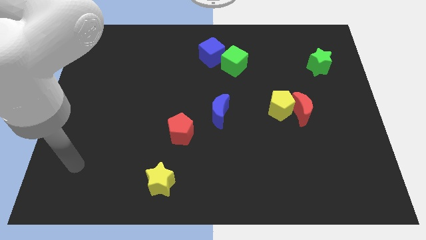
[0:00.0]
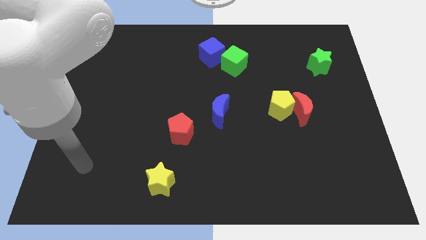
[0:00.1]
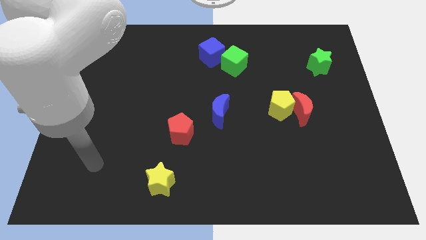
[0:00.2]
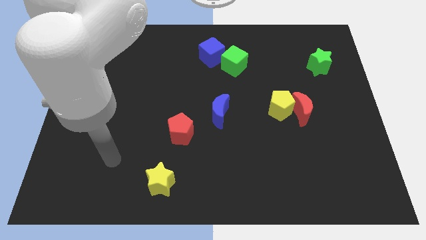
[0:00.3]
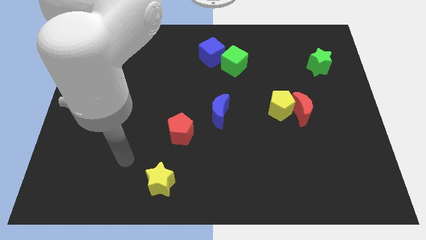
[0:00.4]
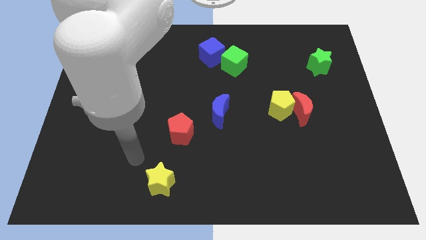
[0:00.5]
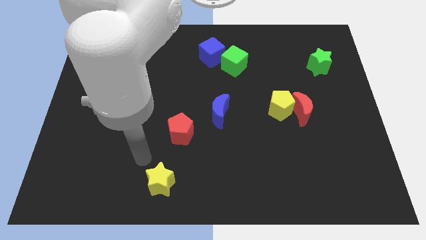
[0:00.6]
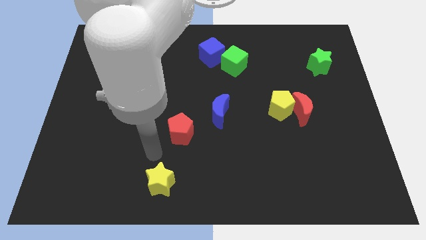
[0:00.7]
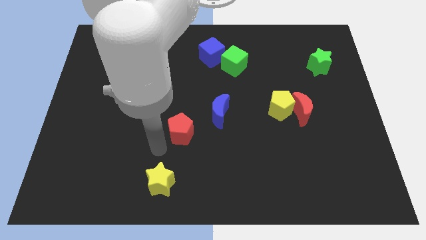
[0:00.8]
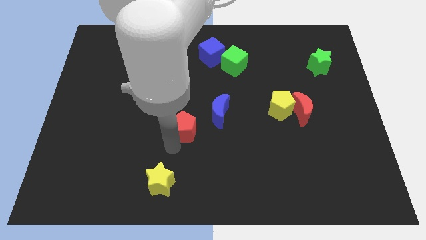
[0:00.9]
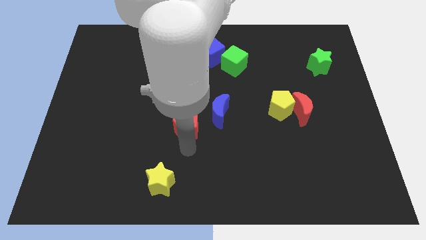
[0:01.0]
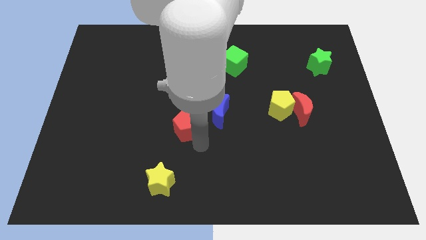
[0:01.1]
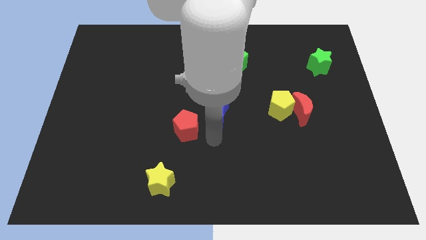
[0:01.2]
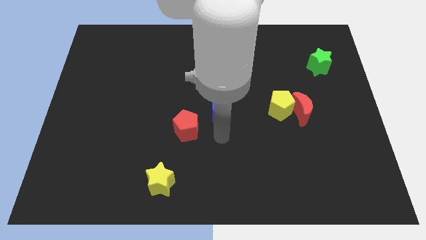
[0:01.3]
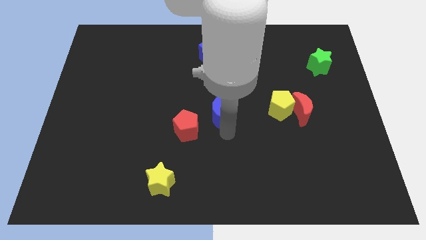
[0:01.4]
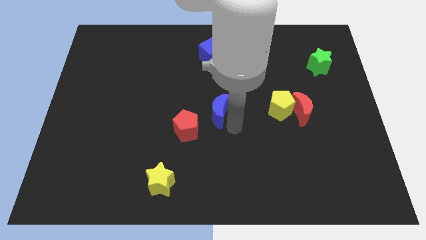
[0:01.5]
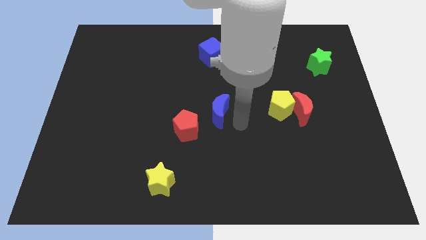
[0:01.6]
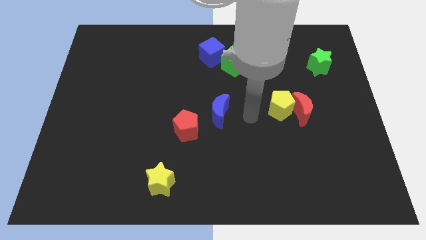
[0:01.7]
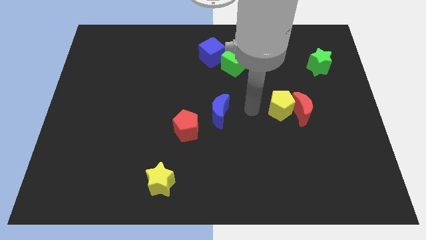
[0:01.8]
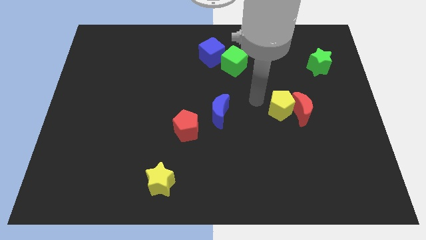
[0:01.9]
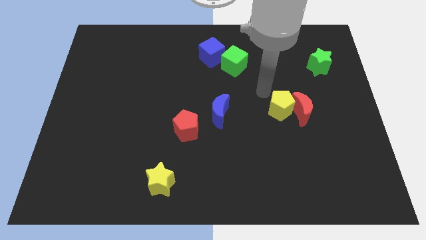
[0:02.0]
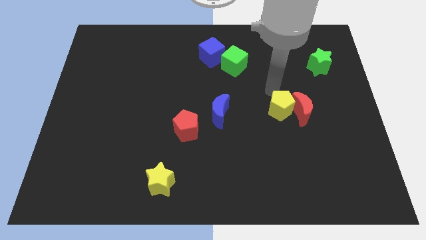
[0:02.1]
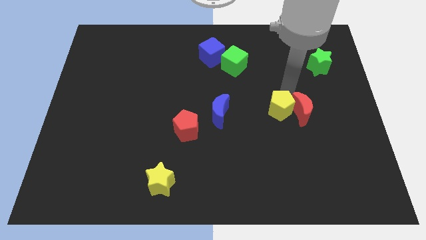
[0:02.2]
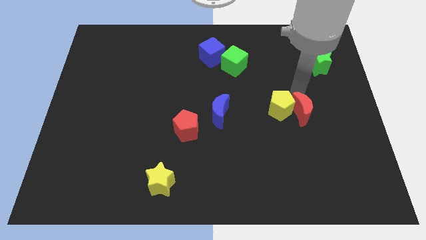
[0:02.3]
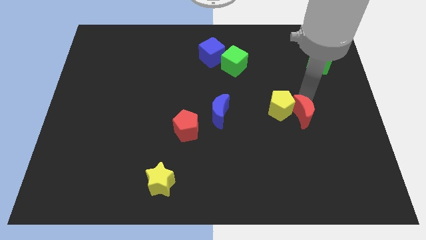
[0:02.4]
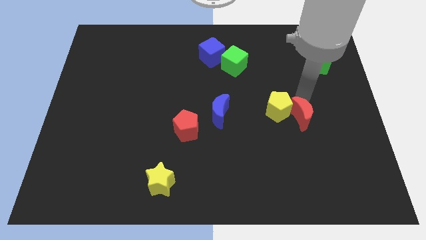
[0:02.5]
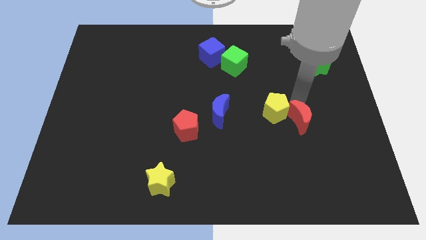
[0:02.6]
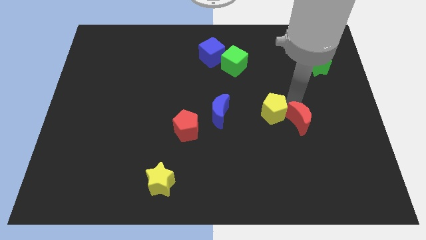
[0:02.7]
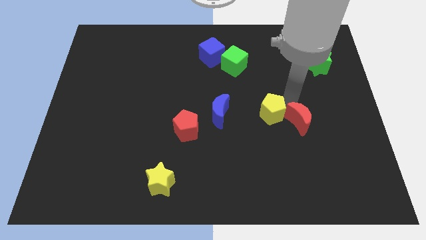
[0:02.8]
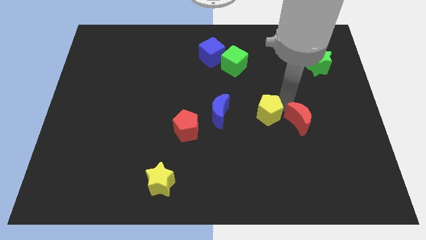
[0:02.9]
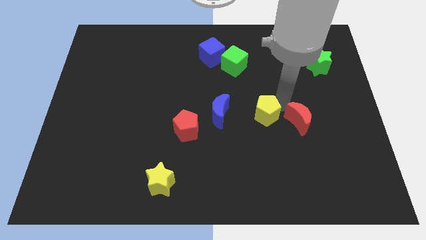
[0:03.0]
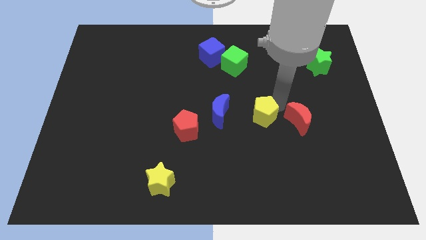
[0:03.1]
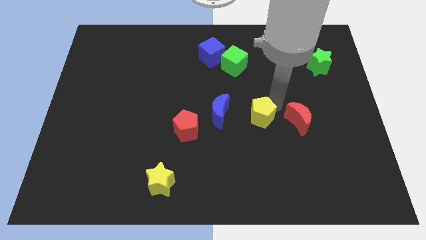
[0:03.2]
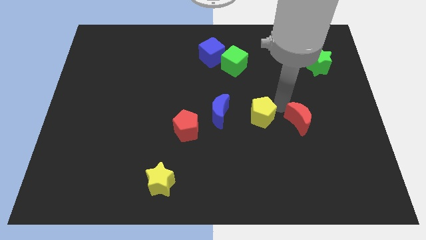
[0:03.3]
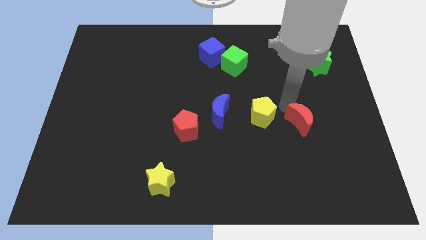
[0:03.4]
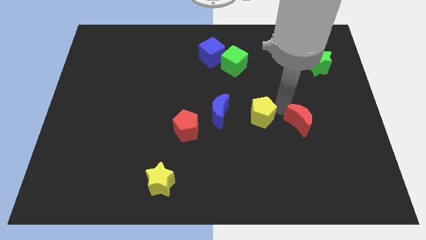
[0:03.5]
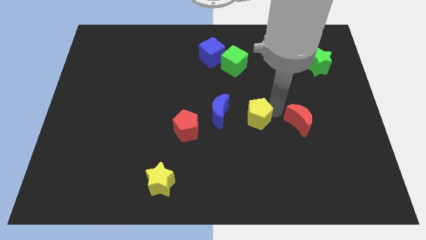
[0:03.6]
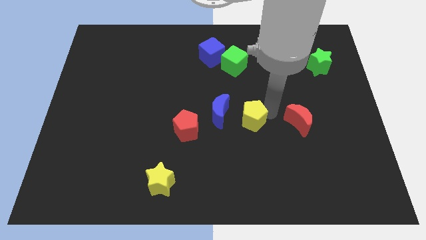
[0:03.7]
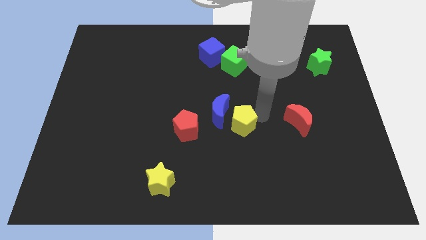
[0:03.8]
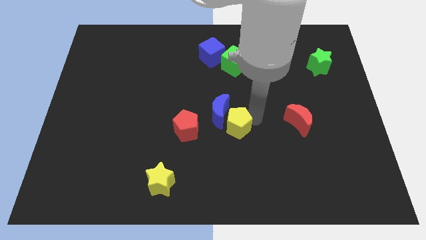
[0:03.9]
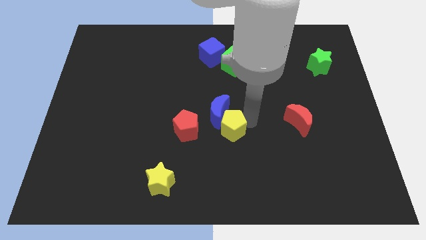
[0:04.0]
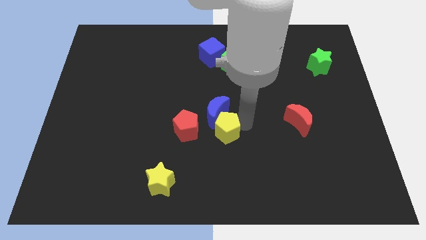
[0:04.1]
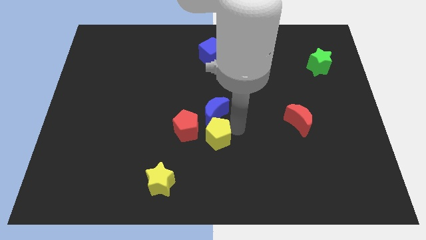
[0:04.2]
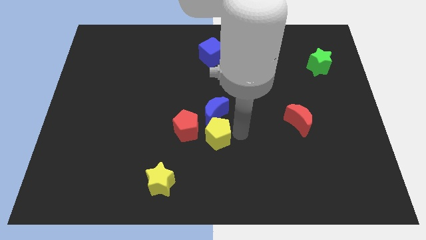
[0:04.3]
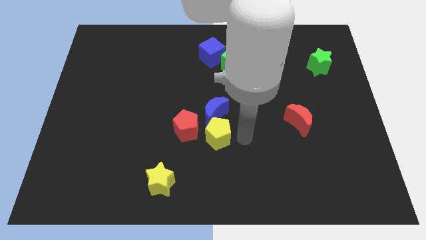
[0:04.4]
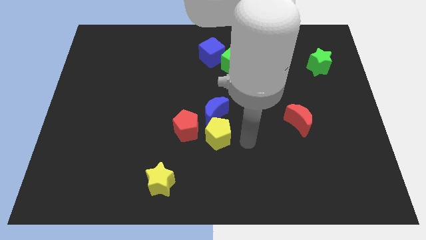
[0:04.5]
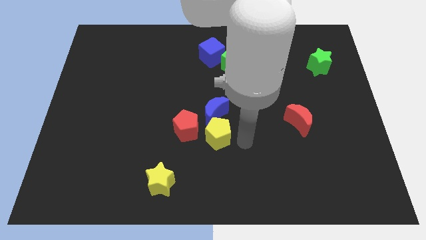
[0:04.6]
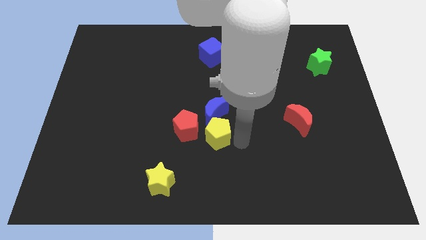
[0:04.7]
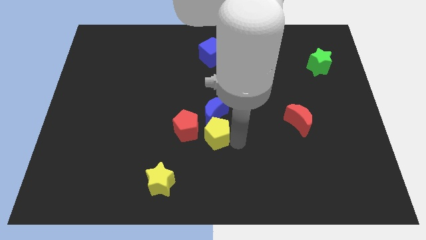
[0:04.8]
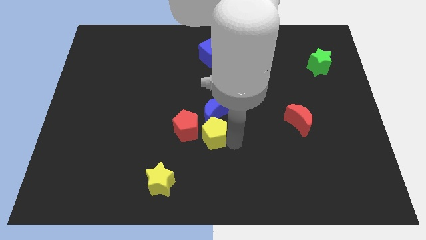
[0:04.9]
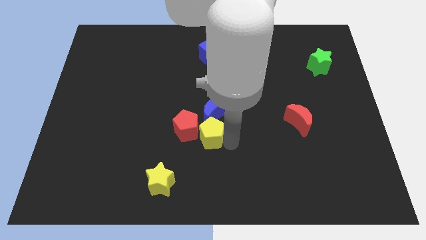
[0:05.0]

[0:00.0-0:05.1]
put the yellow pentagon next to the red pentagon

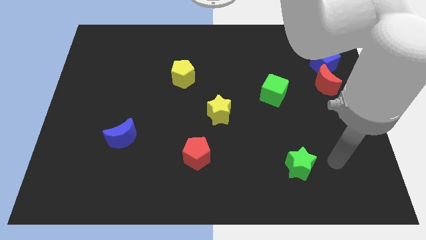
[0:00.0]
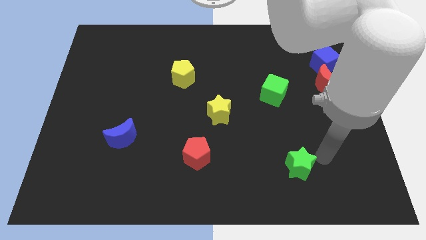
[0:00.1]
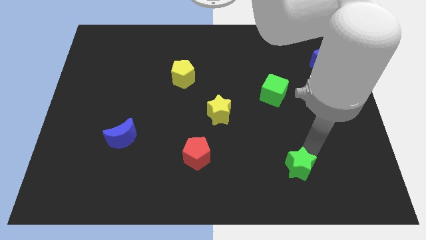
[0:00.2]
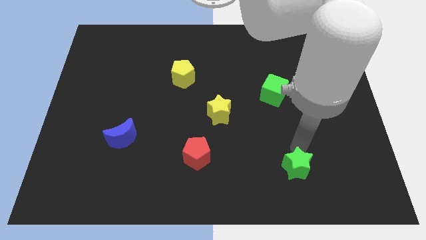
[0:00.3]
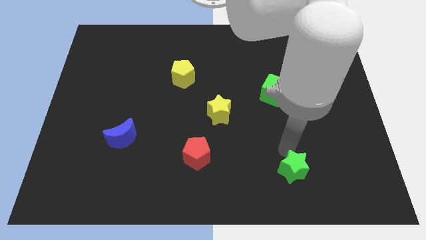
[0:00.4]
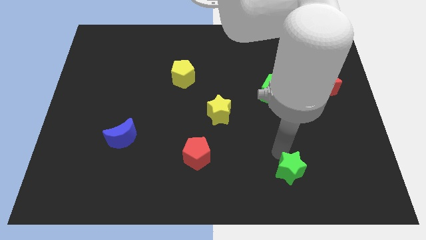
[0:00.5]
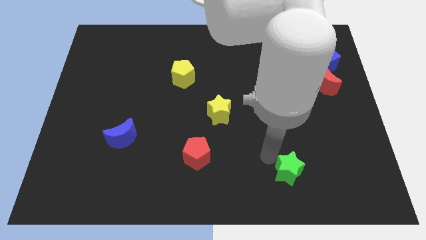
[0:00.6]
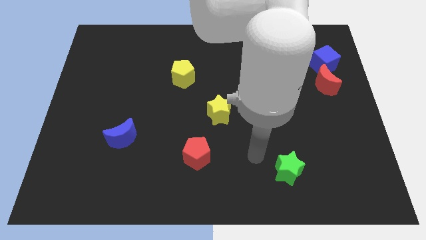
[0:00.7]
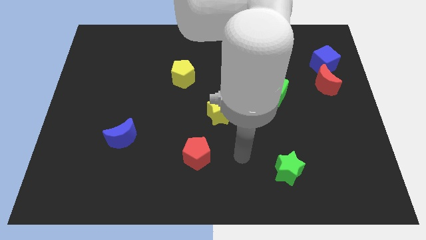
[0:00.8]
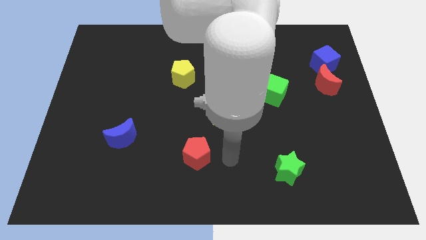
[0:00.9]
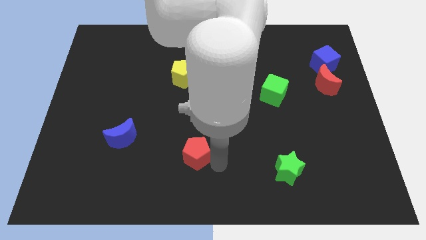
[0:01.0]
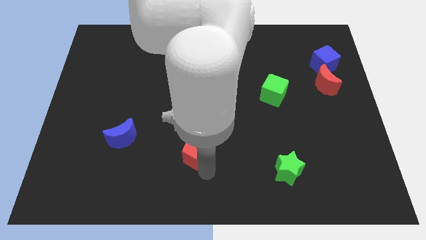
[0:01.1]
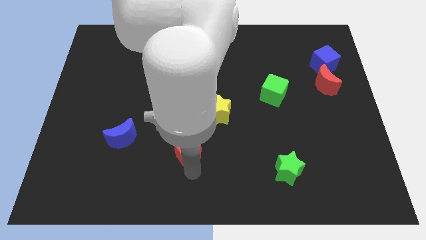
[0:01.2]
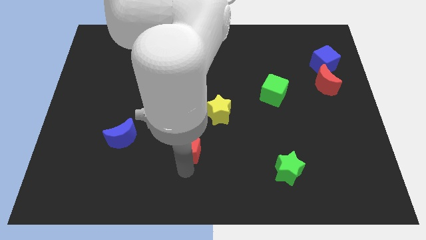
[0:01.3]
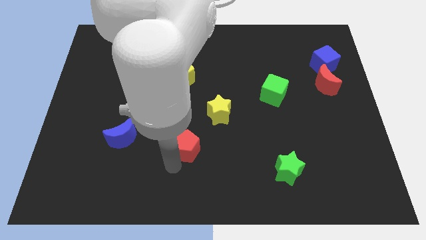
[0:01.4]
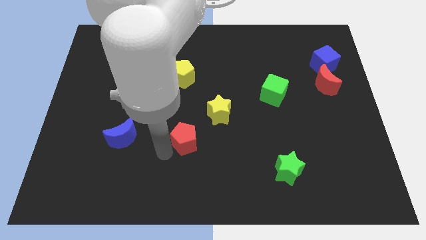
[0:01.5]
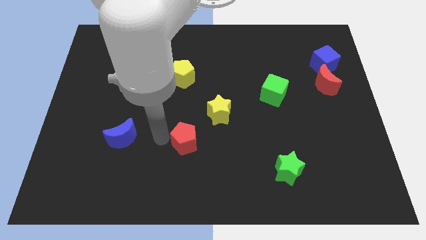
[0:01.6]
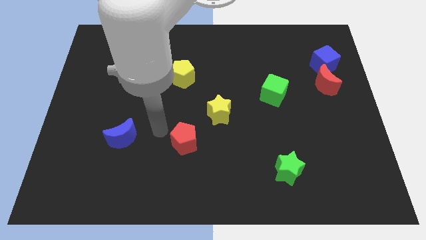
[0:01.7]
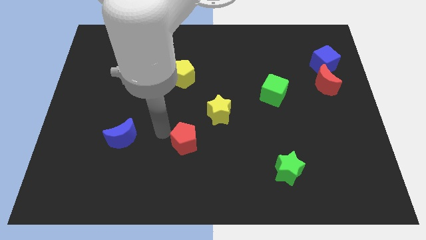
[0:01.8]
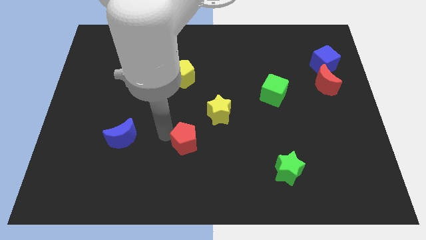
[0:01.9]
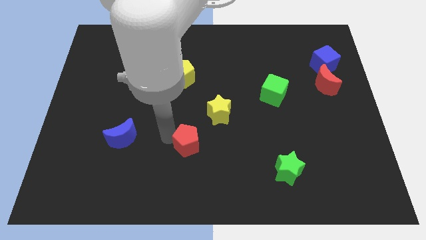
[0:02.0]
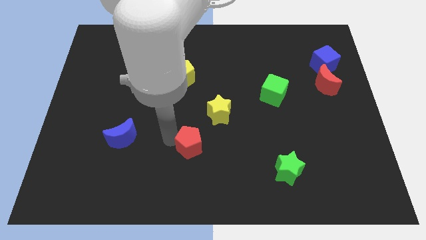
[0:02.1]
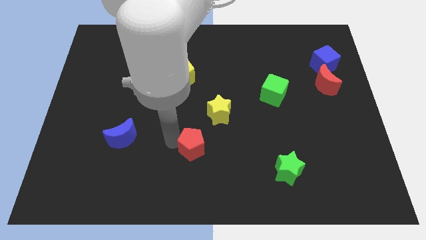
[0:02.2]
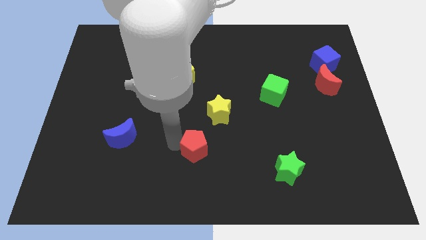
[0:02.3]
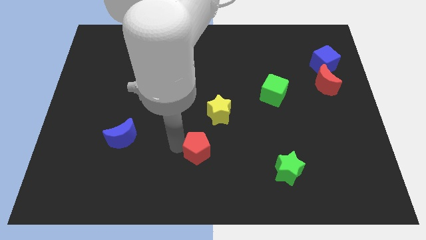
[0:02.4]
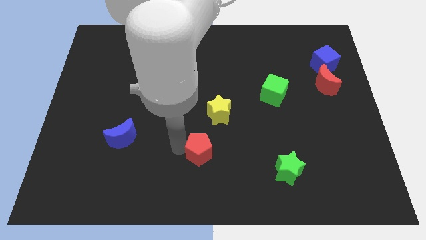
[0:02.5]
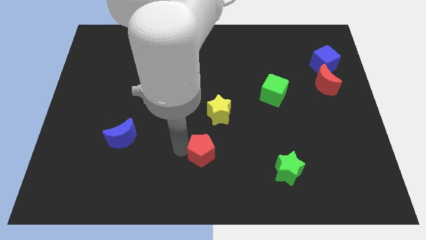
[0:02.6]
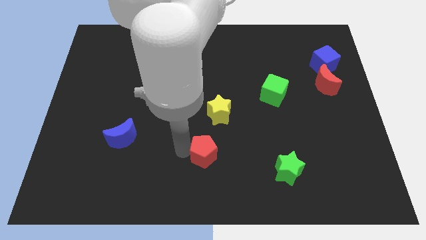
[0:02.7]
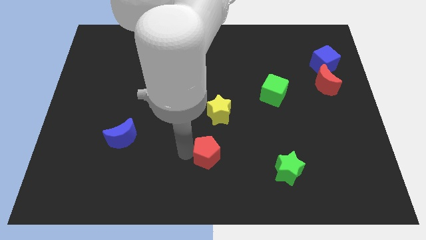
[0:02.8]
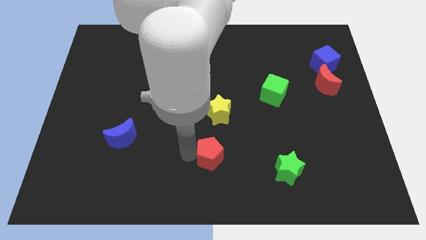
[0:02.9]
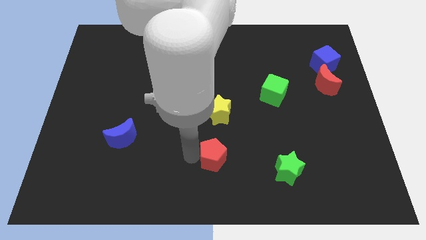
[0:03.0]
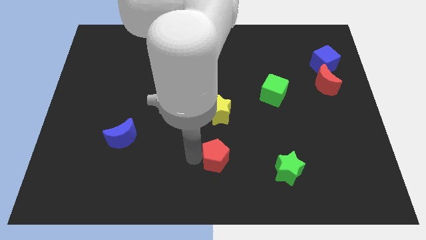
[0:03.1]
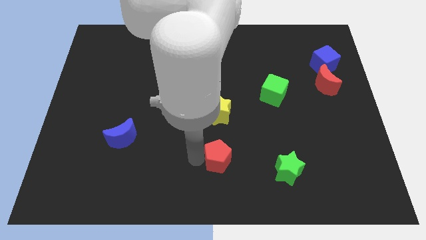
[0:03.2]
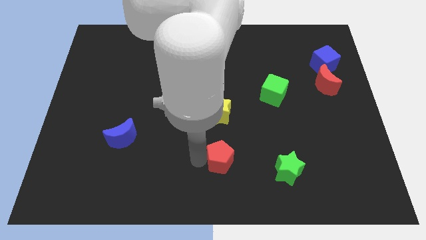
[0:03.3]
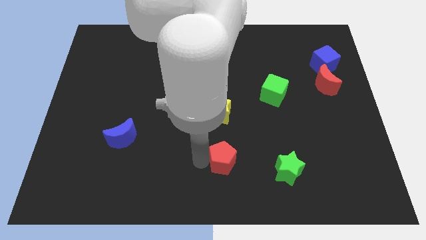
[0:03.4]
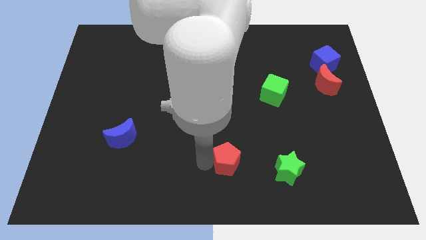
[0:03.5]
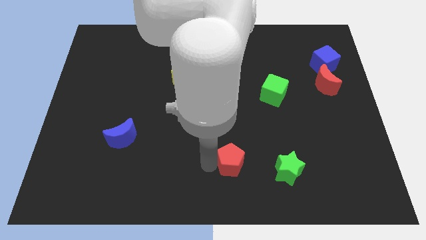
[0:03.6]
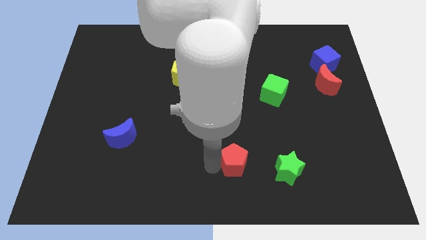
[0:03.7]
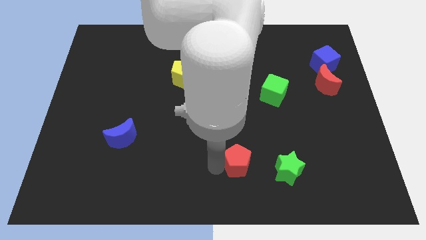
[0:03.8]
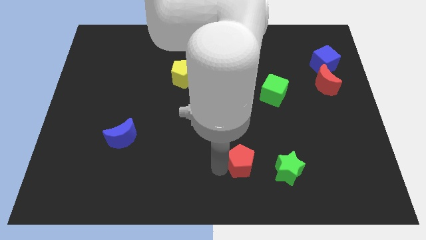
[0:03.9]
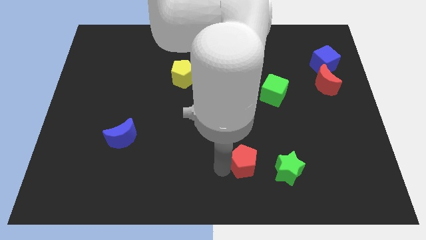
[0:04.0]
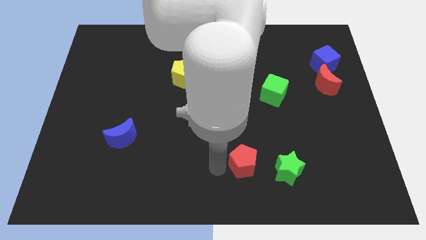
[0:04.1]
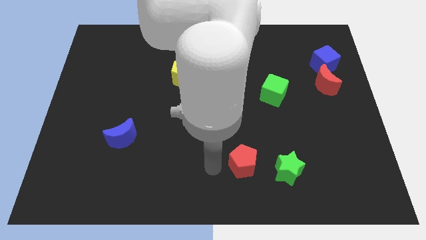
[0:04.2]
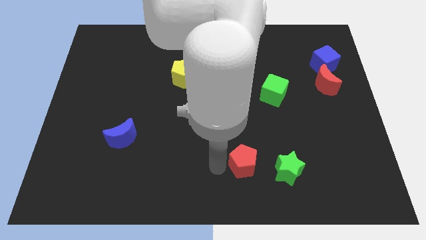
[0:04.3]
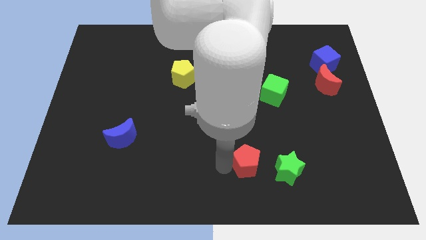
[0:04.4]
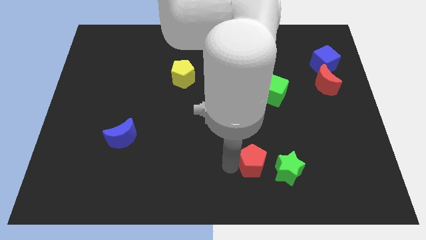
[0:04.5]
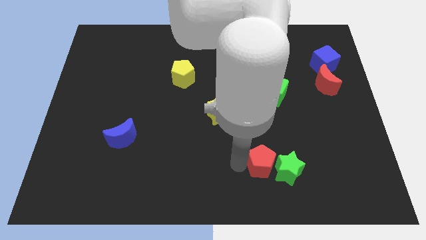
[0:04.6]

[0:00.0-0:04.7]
push the red pentagon close to the green star
